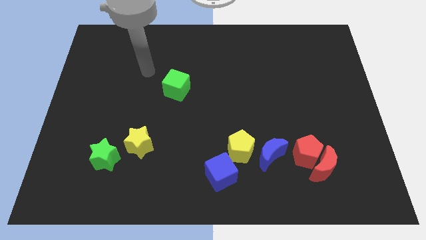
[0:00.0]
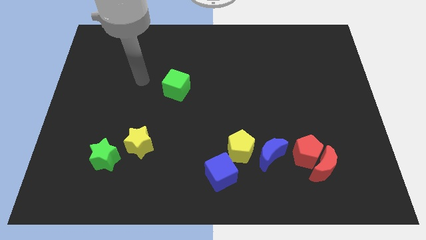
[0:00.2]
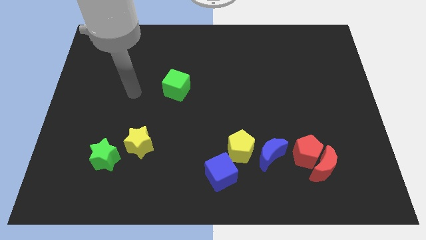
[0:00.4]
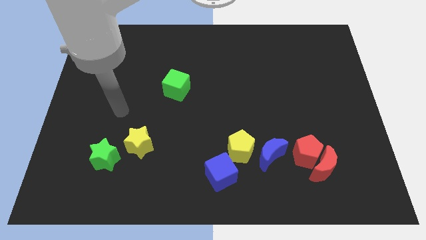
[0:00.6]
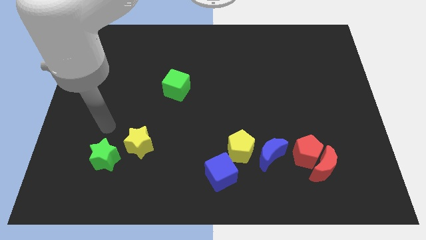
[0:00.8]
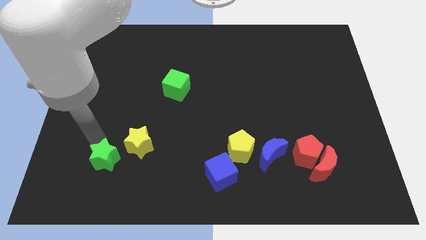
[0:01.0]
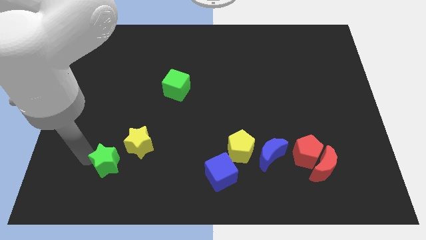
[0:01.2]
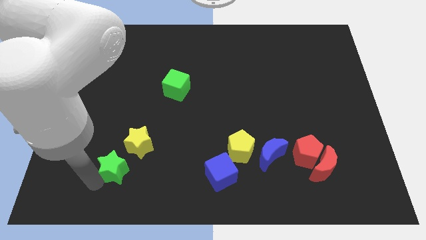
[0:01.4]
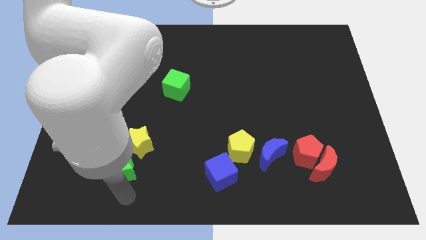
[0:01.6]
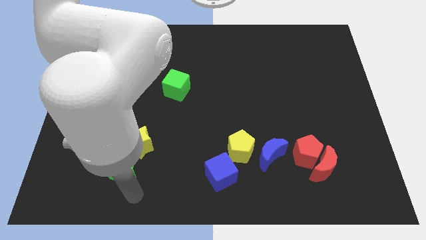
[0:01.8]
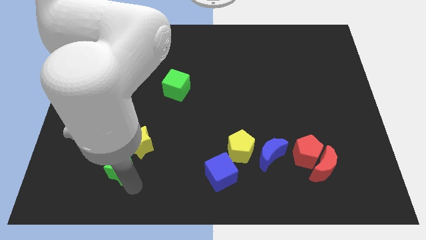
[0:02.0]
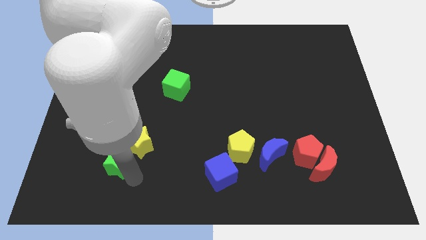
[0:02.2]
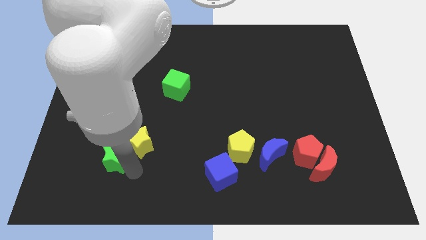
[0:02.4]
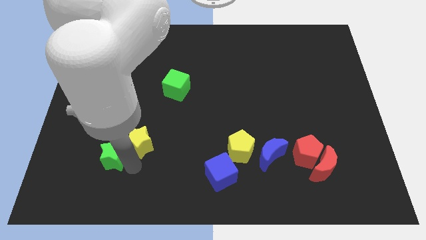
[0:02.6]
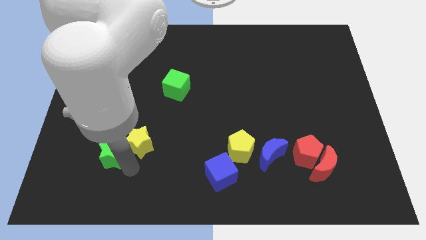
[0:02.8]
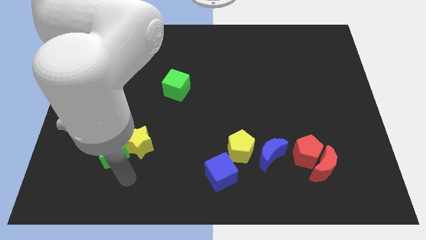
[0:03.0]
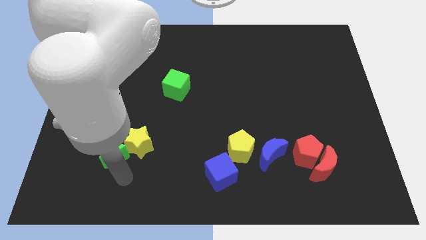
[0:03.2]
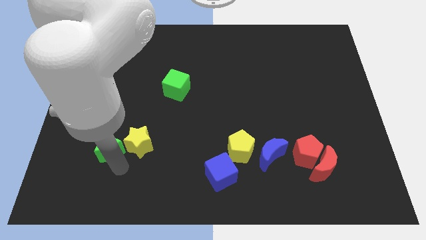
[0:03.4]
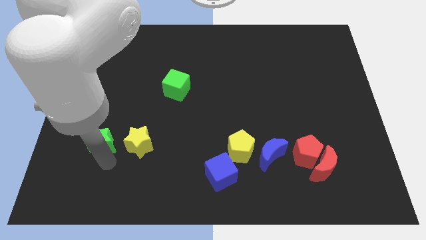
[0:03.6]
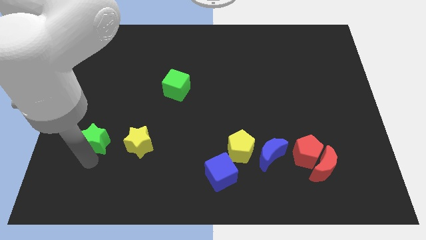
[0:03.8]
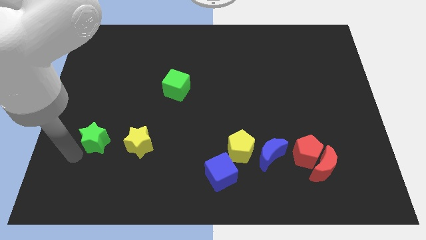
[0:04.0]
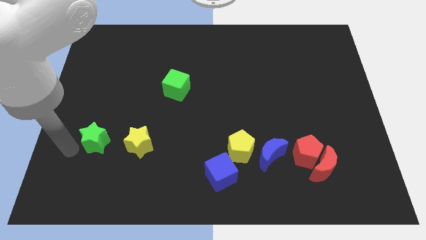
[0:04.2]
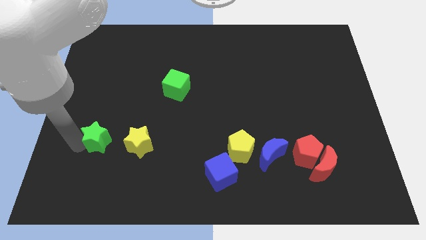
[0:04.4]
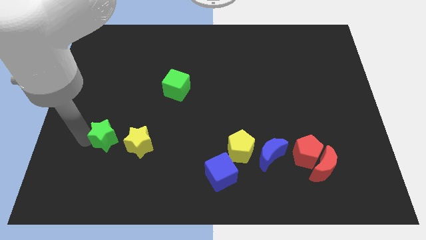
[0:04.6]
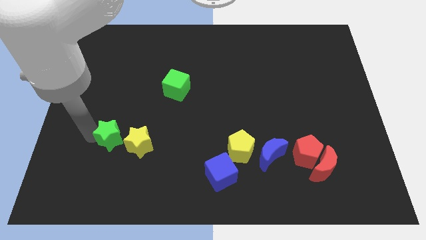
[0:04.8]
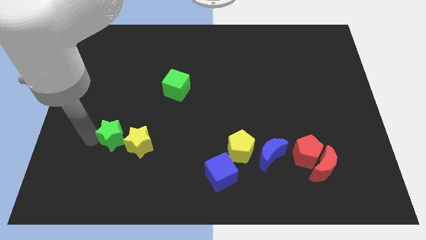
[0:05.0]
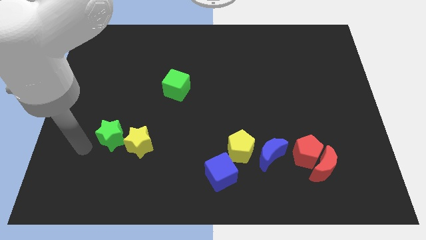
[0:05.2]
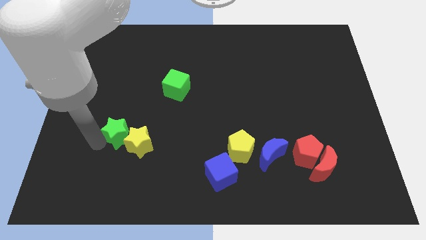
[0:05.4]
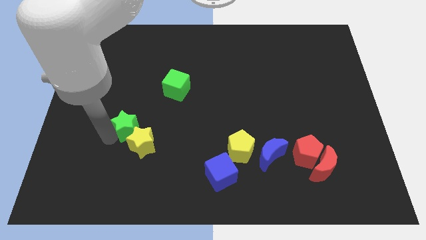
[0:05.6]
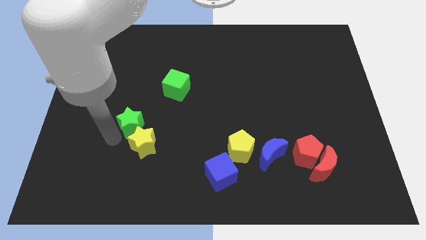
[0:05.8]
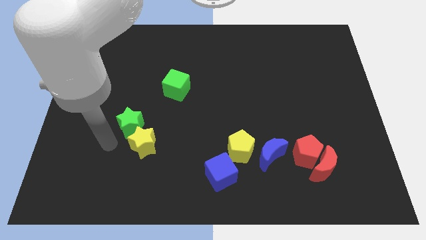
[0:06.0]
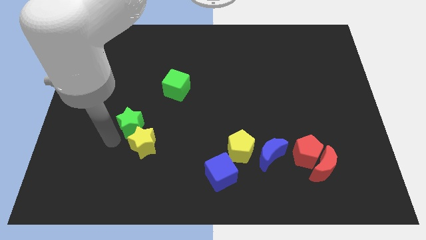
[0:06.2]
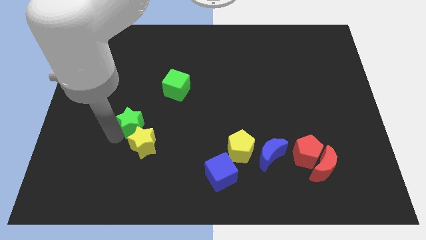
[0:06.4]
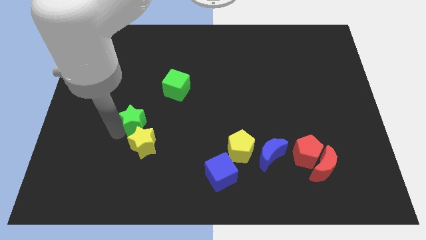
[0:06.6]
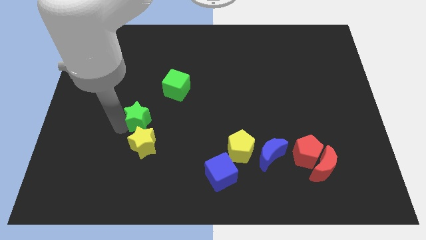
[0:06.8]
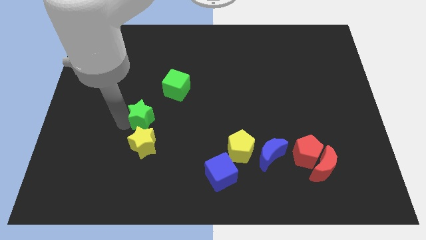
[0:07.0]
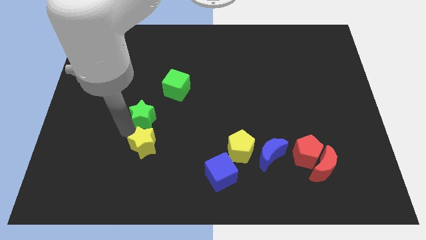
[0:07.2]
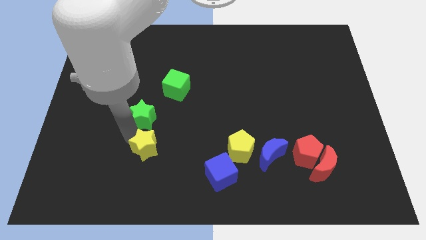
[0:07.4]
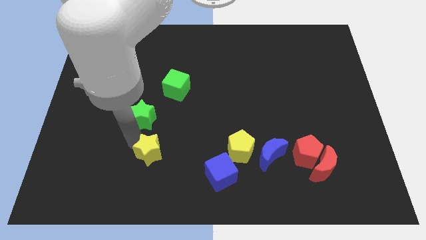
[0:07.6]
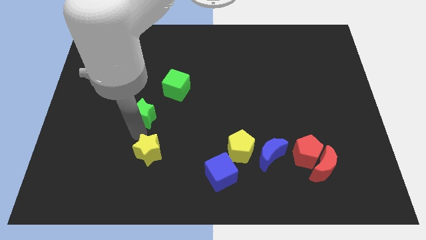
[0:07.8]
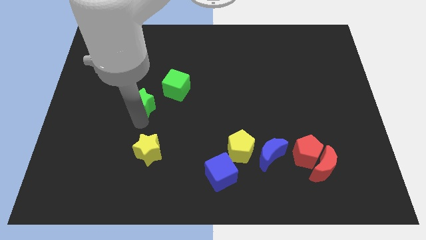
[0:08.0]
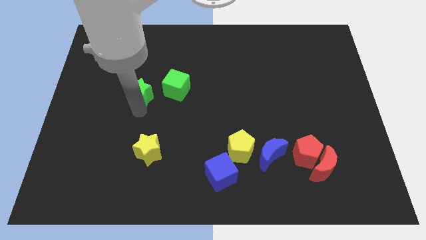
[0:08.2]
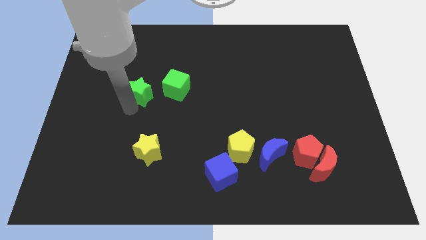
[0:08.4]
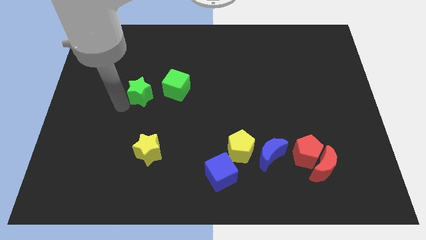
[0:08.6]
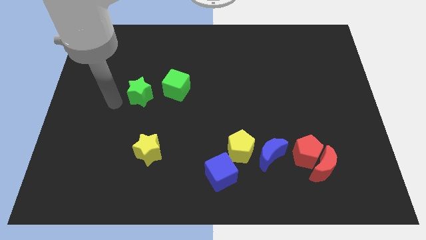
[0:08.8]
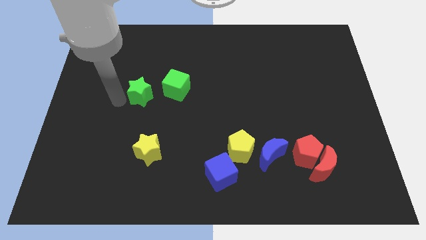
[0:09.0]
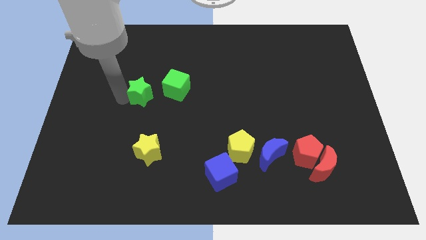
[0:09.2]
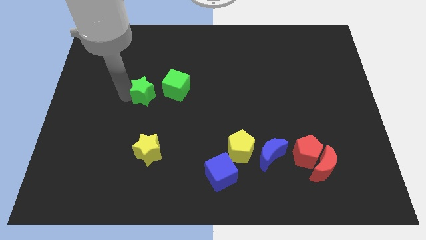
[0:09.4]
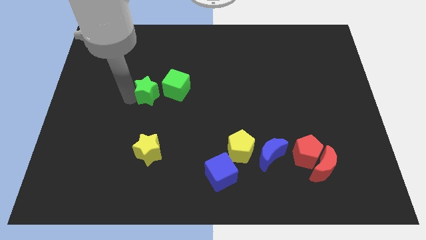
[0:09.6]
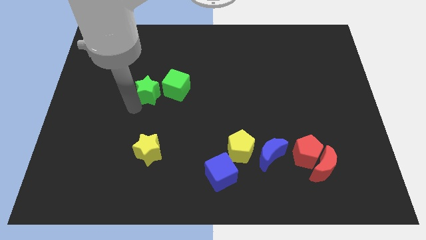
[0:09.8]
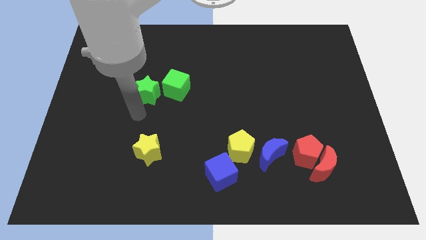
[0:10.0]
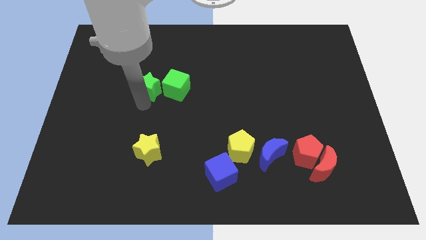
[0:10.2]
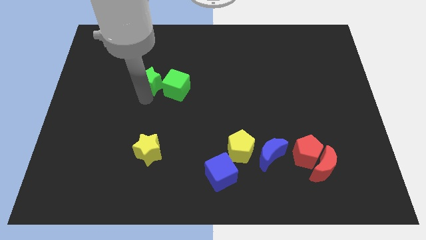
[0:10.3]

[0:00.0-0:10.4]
put the green star to the top left side of the green cube

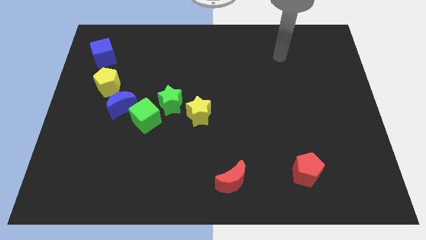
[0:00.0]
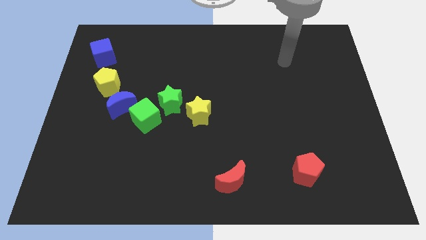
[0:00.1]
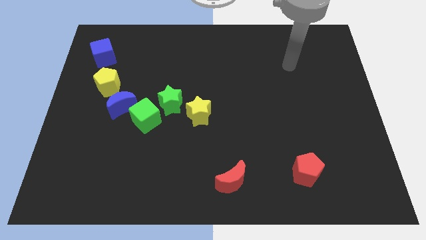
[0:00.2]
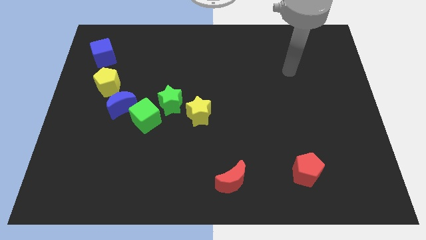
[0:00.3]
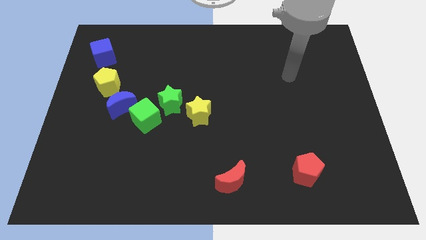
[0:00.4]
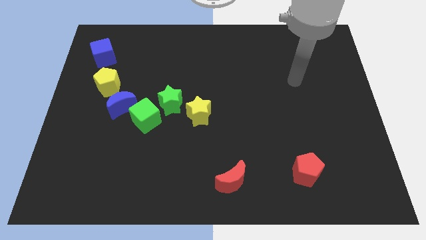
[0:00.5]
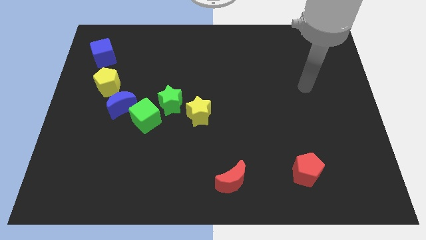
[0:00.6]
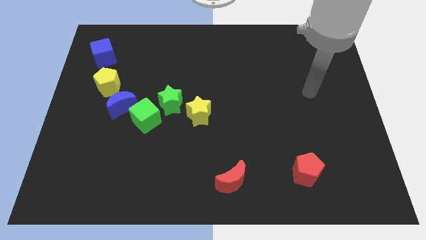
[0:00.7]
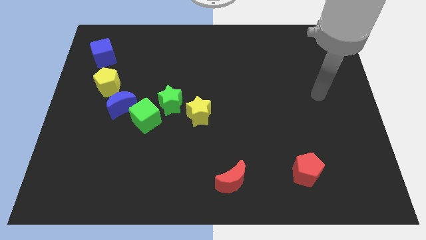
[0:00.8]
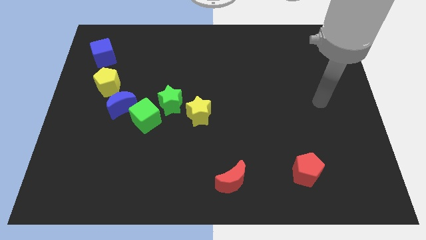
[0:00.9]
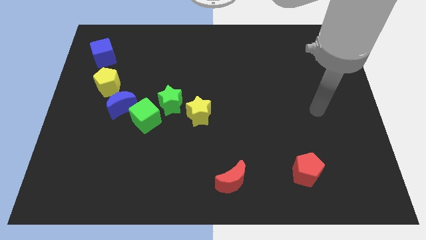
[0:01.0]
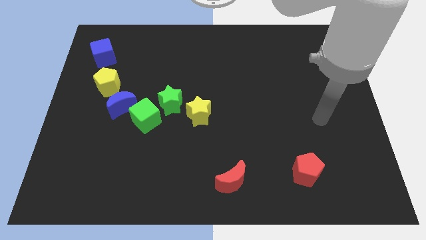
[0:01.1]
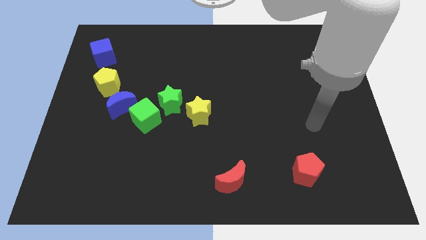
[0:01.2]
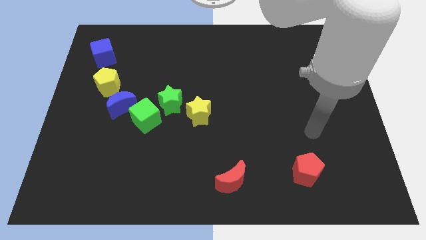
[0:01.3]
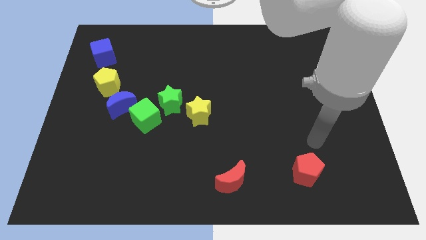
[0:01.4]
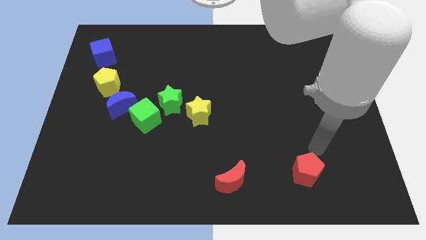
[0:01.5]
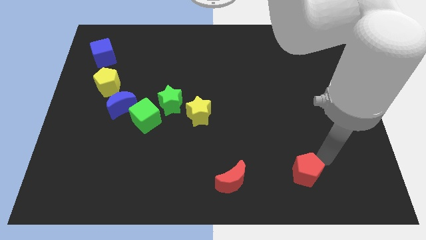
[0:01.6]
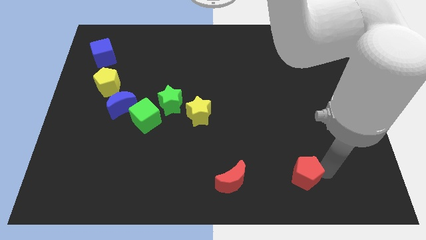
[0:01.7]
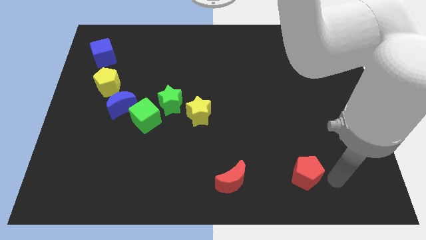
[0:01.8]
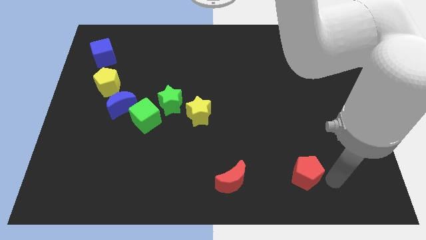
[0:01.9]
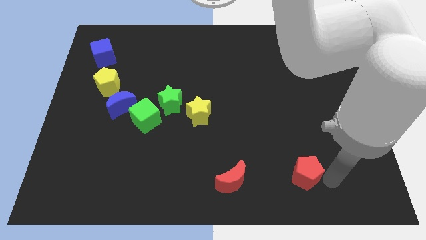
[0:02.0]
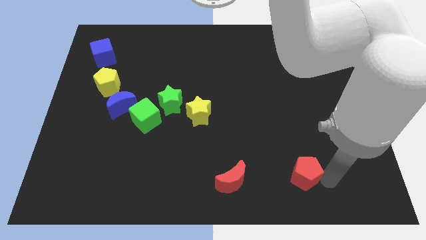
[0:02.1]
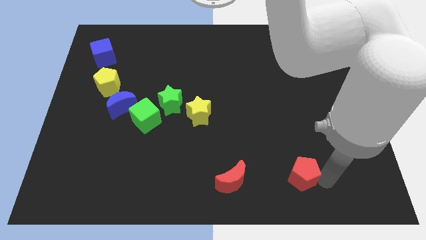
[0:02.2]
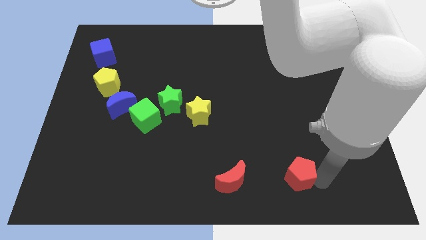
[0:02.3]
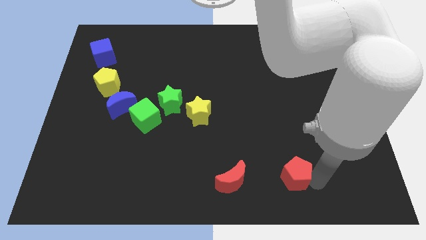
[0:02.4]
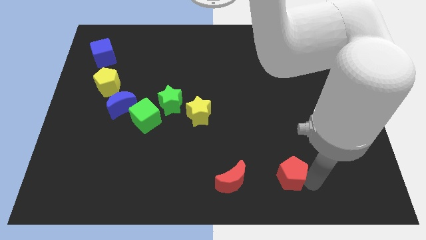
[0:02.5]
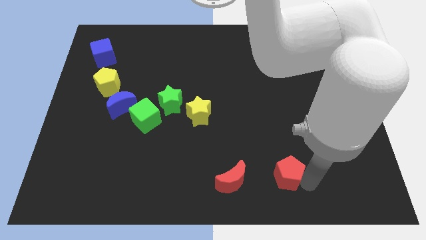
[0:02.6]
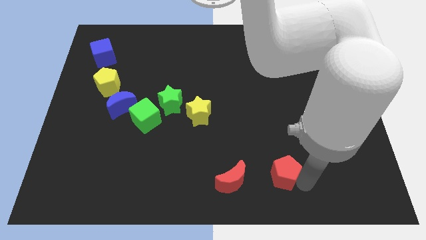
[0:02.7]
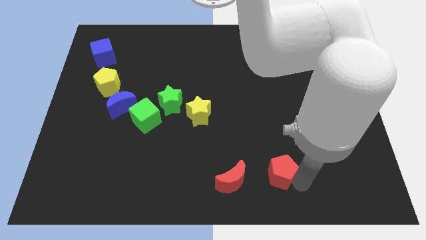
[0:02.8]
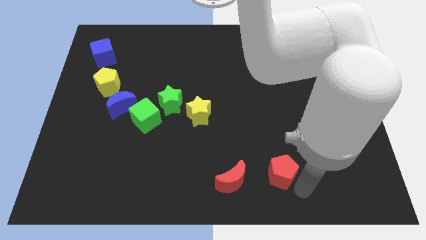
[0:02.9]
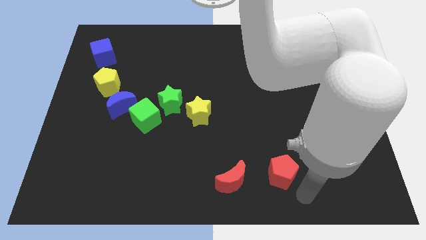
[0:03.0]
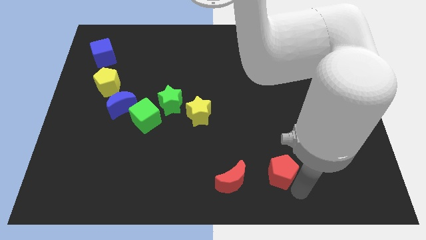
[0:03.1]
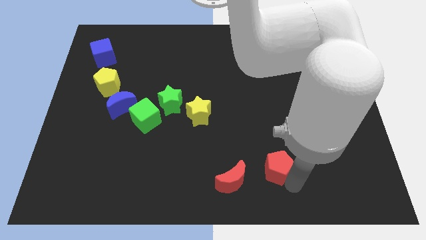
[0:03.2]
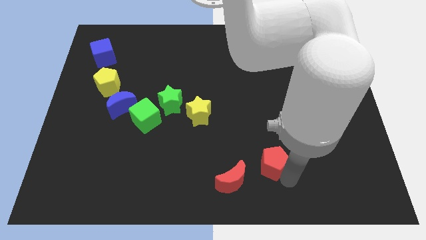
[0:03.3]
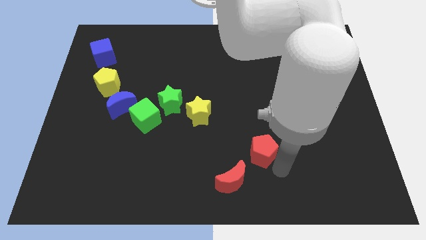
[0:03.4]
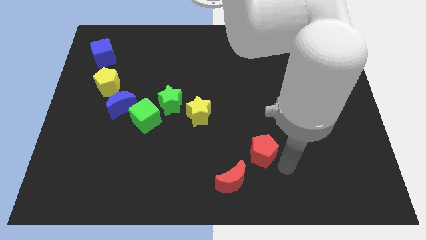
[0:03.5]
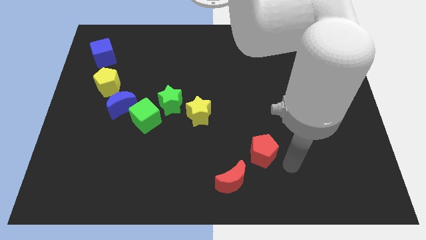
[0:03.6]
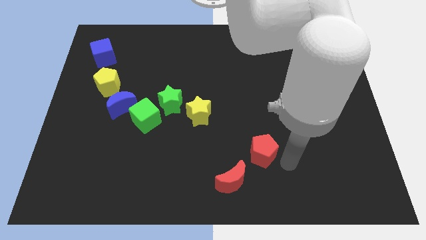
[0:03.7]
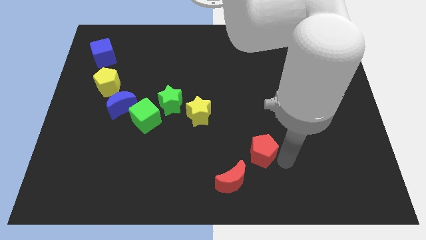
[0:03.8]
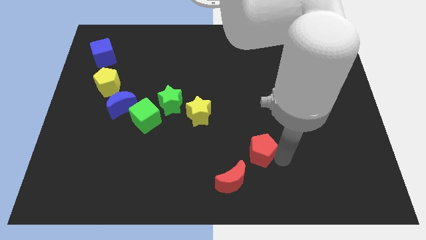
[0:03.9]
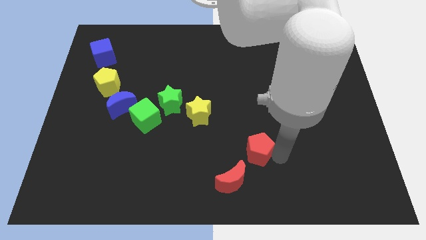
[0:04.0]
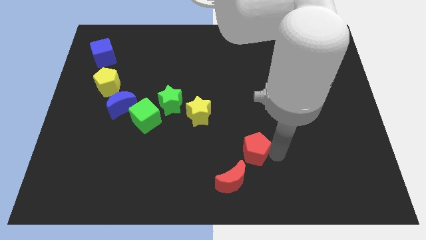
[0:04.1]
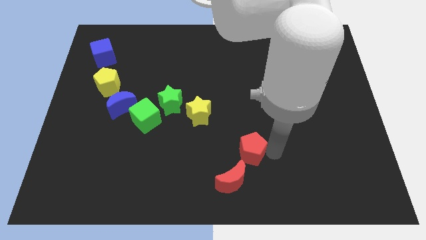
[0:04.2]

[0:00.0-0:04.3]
move the red pentagon to the top of the red moon
